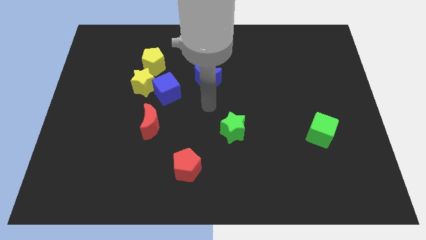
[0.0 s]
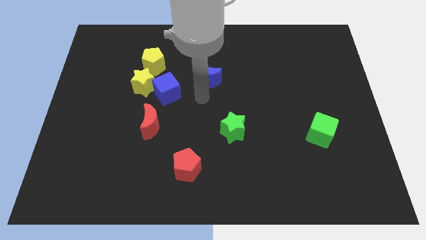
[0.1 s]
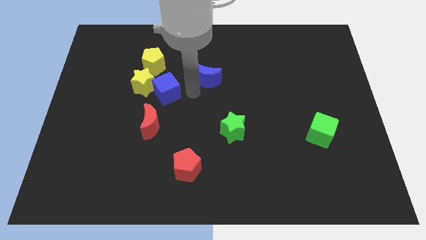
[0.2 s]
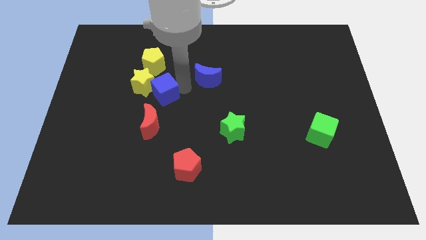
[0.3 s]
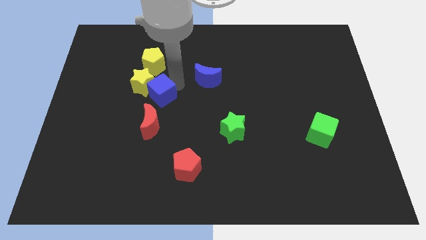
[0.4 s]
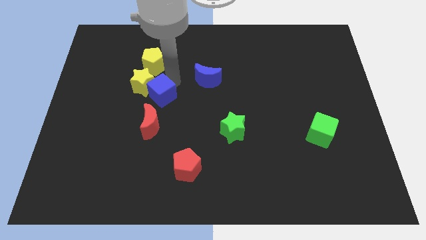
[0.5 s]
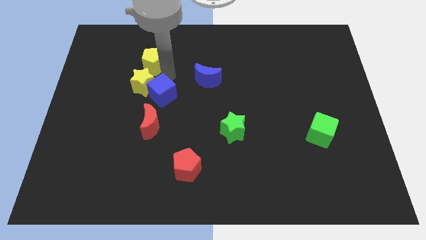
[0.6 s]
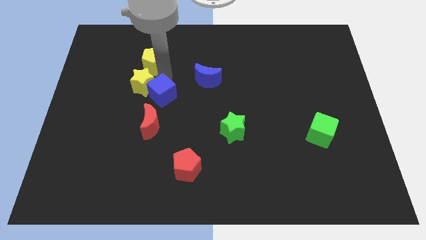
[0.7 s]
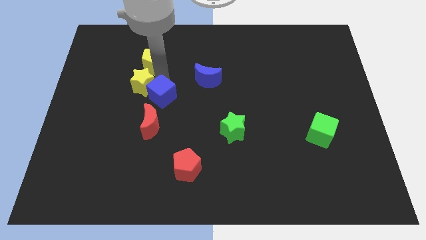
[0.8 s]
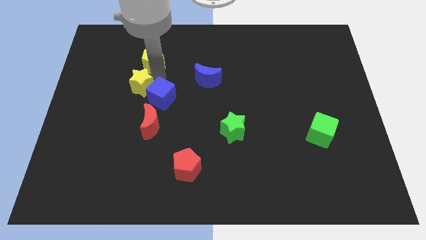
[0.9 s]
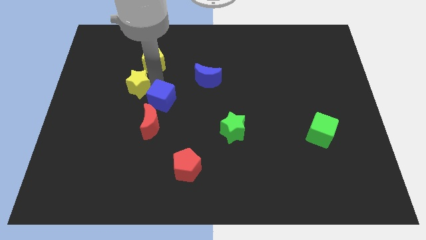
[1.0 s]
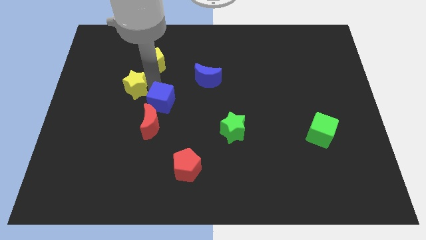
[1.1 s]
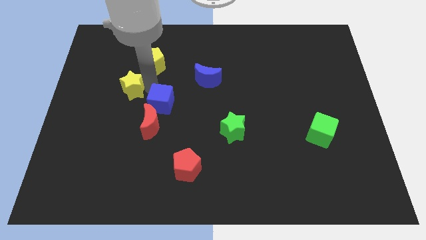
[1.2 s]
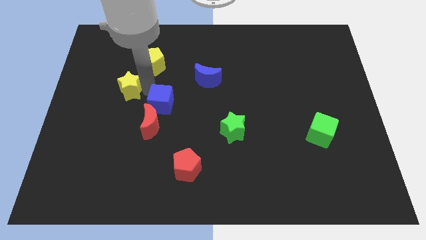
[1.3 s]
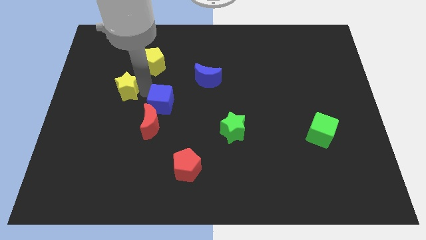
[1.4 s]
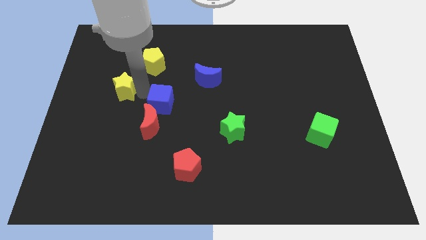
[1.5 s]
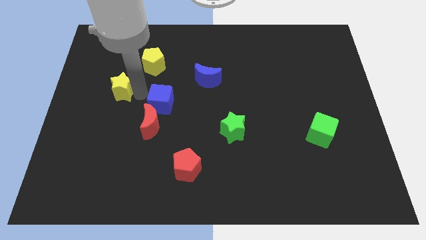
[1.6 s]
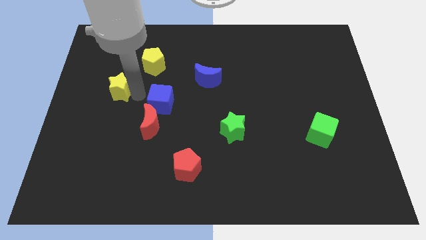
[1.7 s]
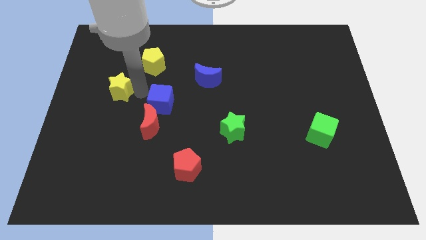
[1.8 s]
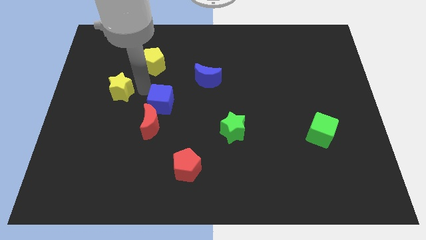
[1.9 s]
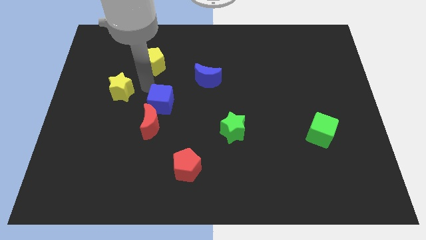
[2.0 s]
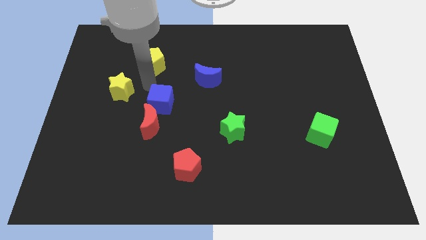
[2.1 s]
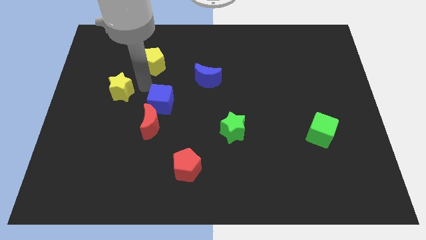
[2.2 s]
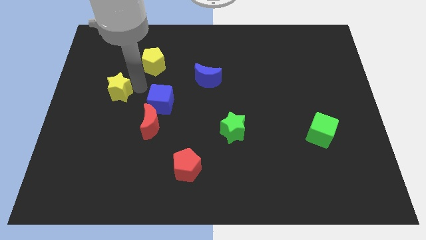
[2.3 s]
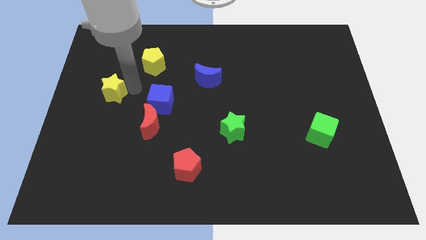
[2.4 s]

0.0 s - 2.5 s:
separate the yellow star from the blue cube and yellow pentagon

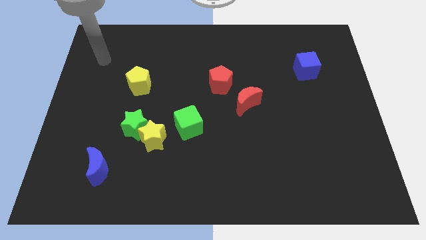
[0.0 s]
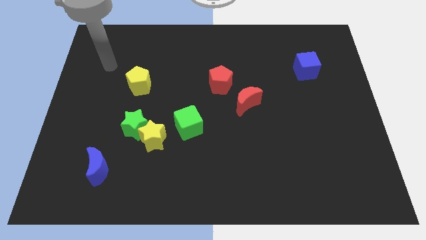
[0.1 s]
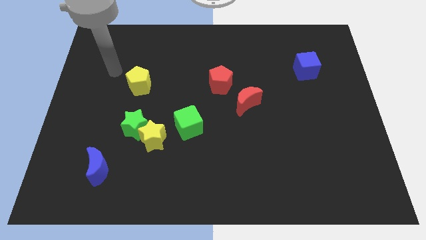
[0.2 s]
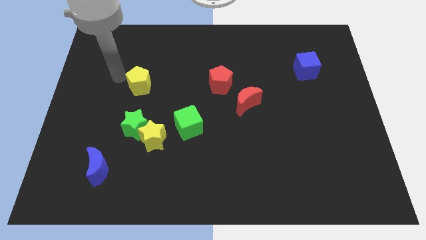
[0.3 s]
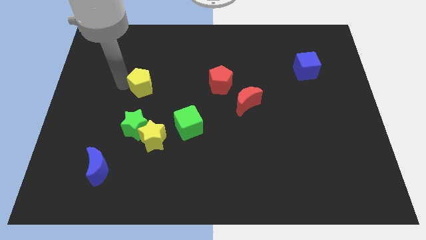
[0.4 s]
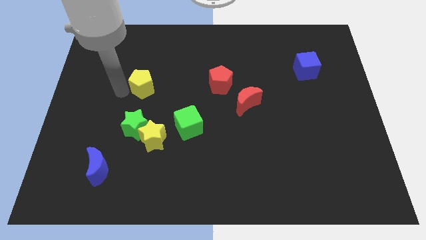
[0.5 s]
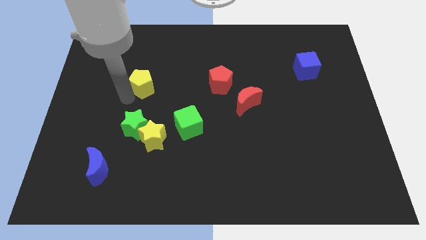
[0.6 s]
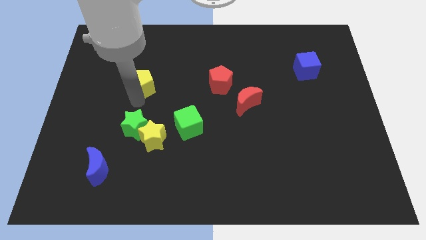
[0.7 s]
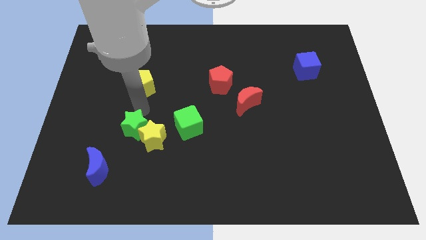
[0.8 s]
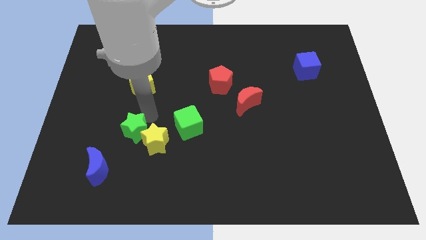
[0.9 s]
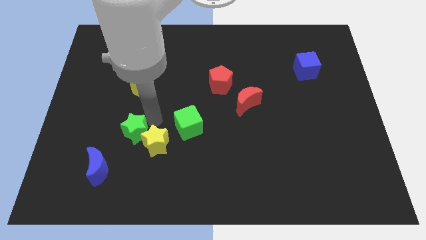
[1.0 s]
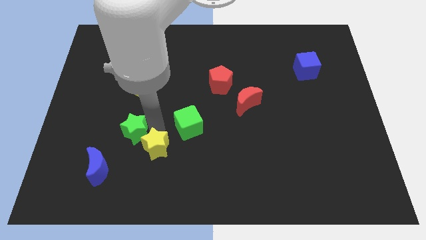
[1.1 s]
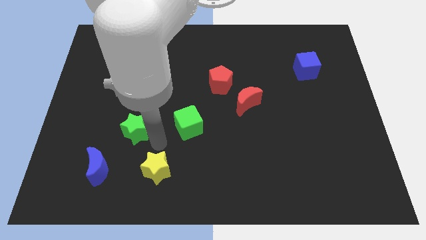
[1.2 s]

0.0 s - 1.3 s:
move the green star away from the yellow star

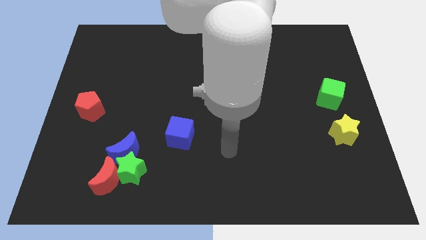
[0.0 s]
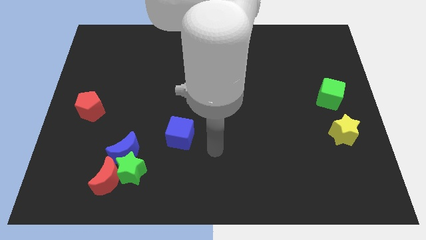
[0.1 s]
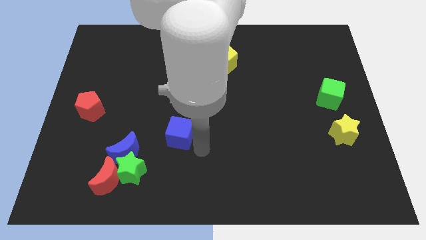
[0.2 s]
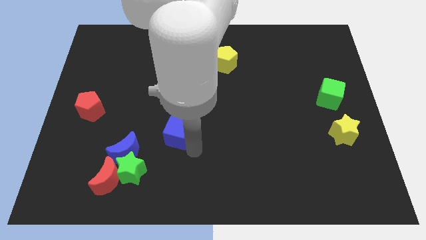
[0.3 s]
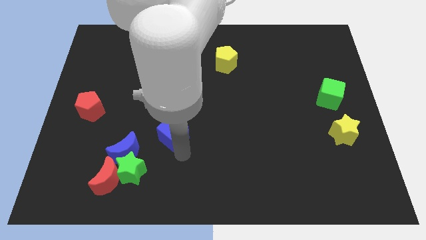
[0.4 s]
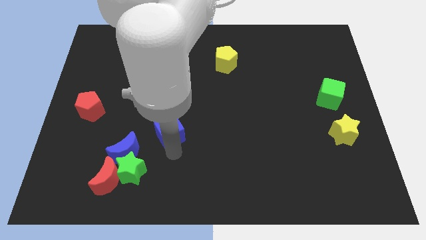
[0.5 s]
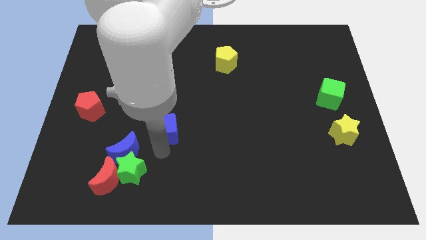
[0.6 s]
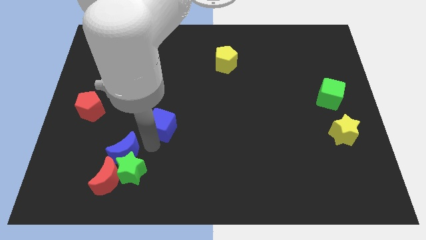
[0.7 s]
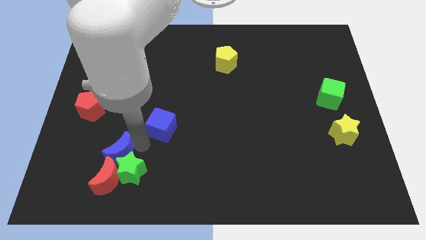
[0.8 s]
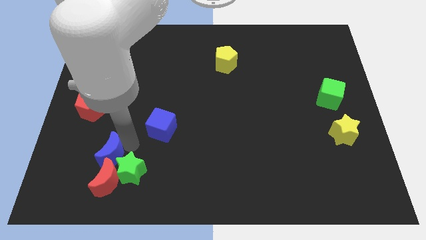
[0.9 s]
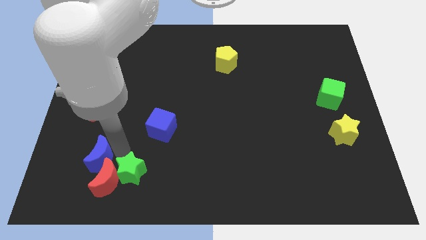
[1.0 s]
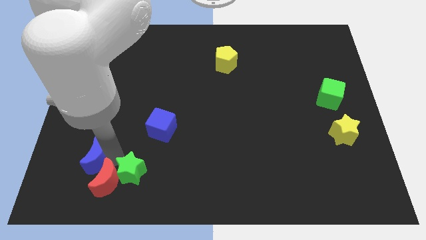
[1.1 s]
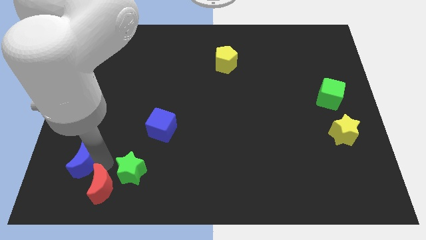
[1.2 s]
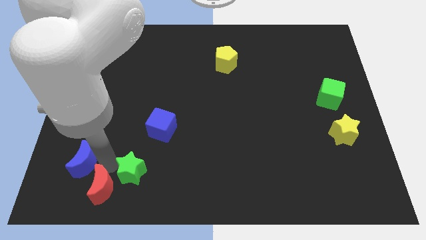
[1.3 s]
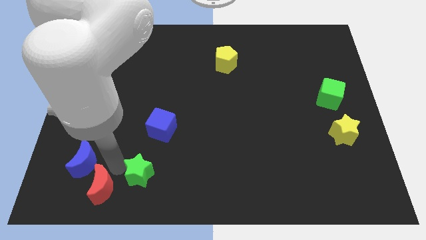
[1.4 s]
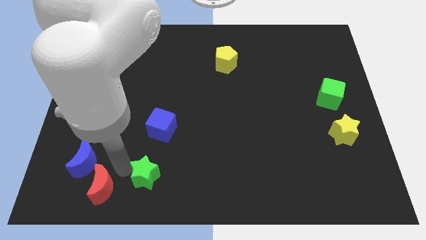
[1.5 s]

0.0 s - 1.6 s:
separate the green star from the blue moon and red moon

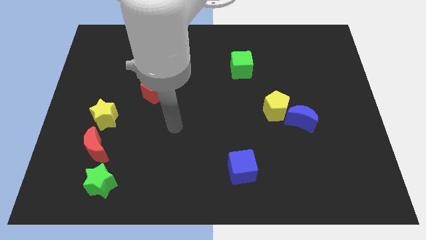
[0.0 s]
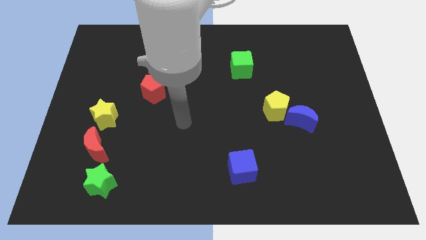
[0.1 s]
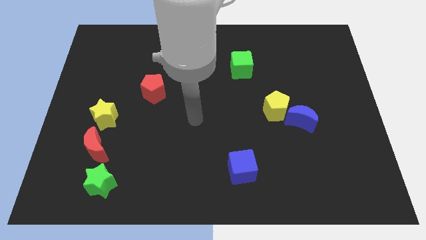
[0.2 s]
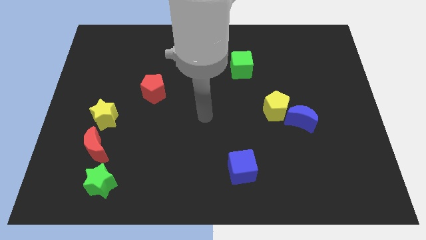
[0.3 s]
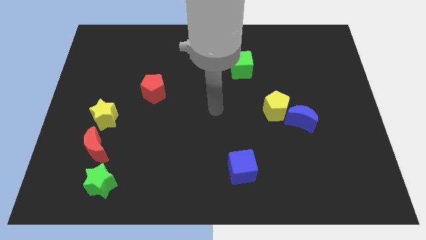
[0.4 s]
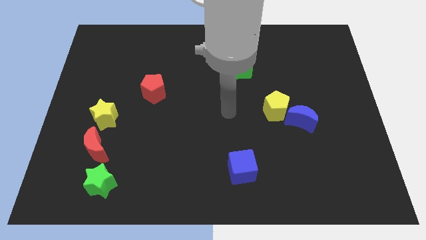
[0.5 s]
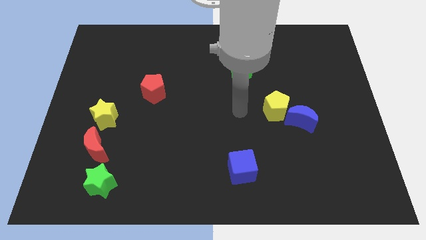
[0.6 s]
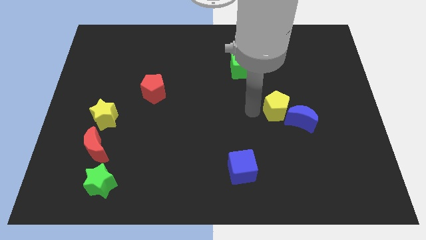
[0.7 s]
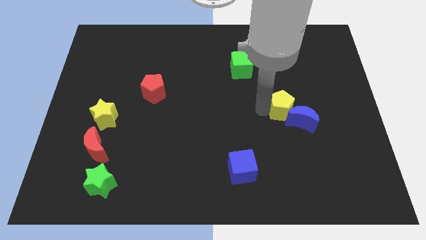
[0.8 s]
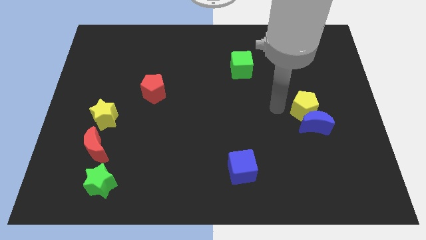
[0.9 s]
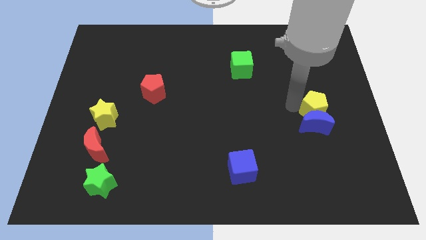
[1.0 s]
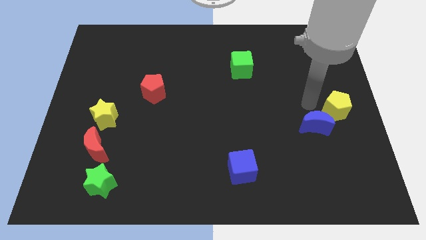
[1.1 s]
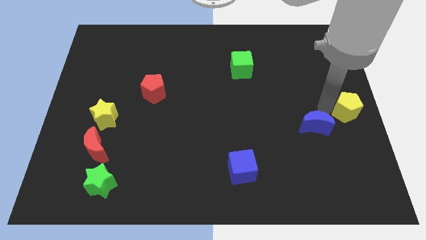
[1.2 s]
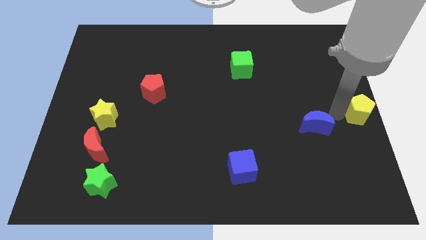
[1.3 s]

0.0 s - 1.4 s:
pull the blue moon apart from the yellow pentagon

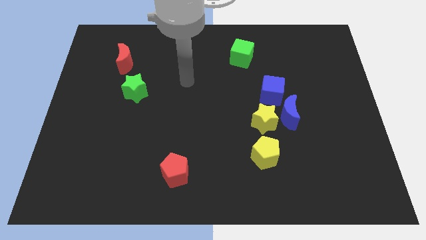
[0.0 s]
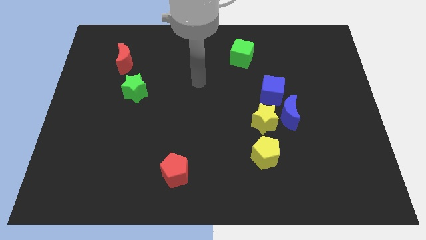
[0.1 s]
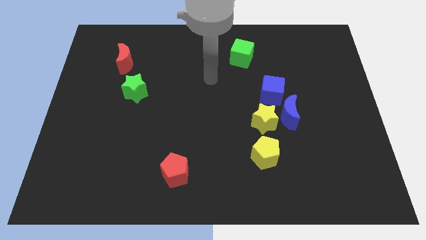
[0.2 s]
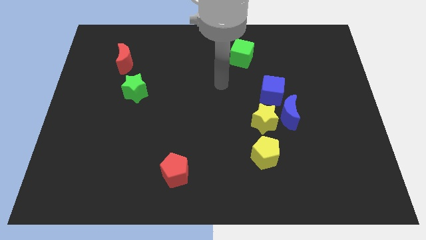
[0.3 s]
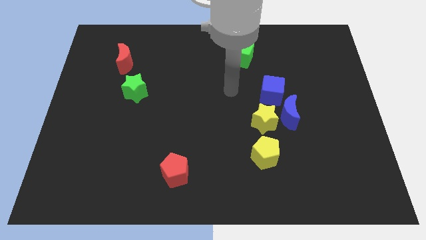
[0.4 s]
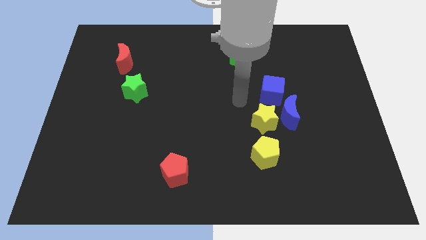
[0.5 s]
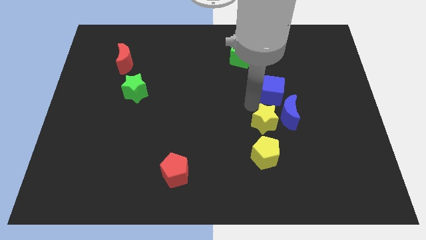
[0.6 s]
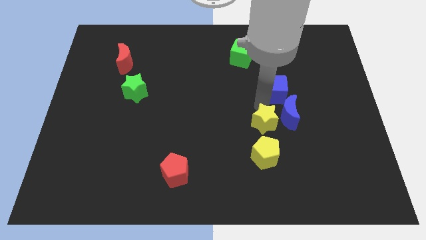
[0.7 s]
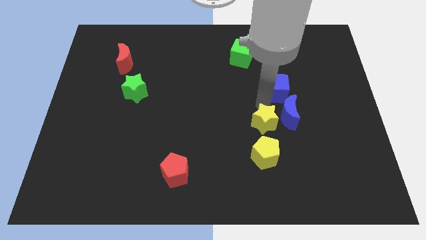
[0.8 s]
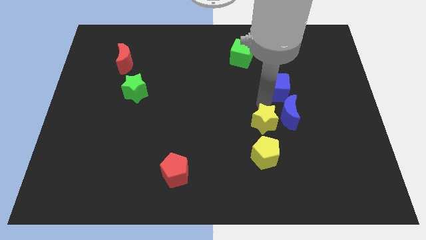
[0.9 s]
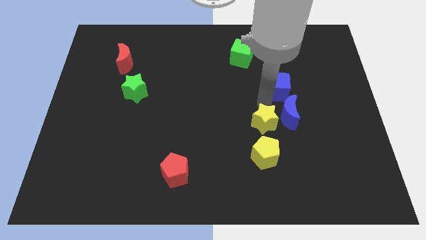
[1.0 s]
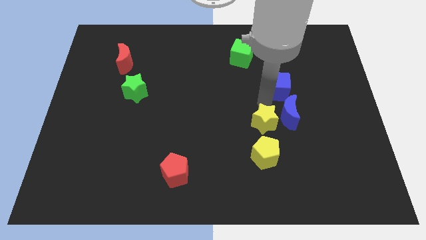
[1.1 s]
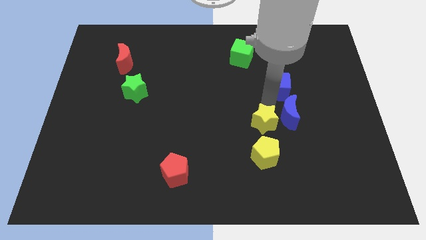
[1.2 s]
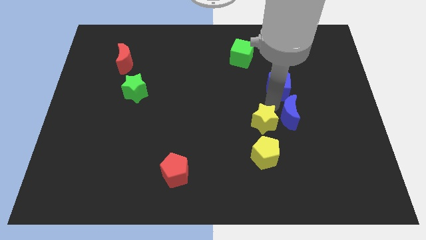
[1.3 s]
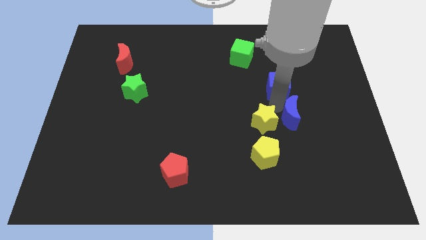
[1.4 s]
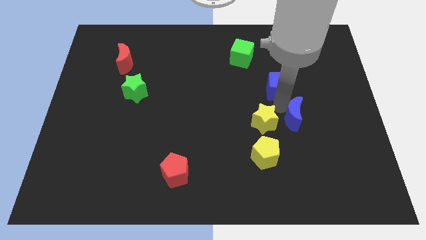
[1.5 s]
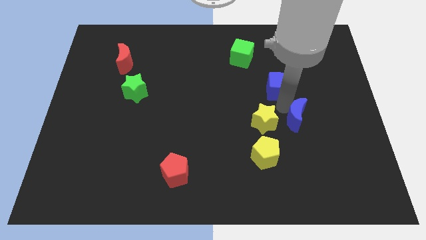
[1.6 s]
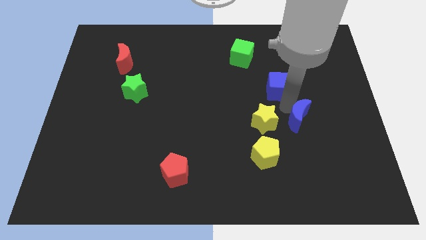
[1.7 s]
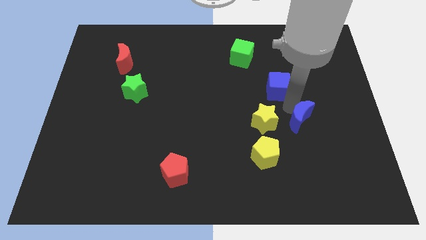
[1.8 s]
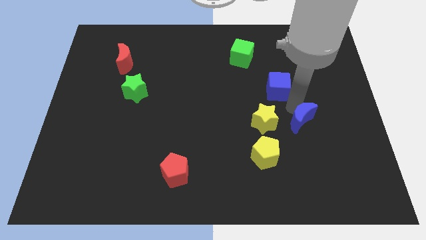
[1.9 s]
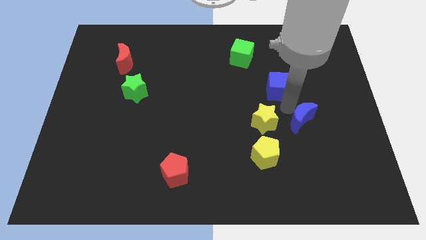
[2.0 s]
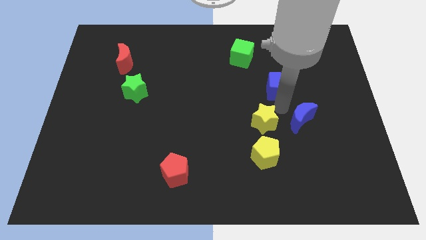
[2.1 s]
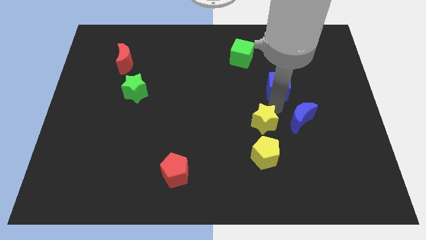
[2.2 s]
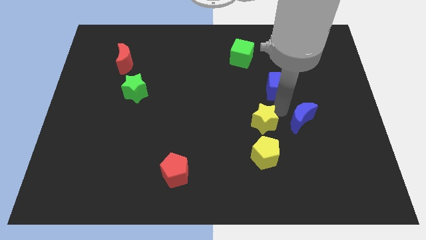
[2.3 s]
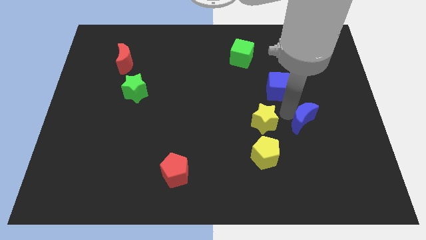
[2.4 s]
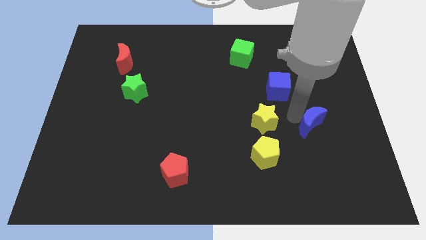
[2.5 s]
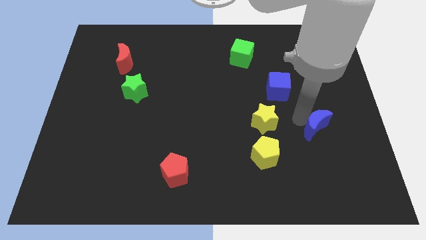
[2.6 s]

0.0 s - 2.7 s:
pull the blue moon apart from the yellow star and blue cube
